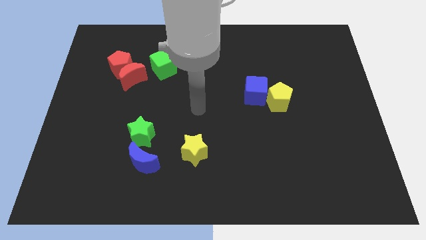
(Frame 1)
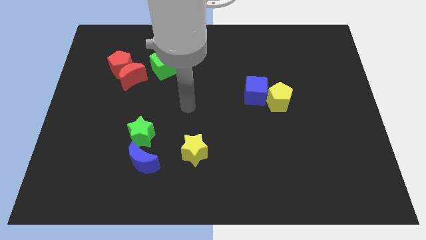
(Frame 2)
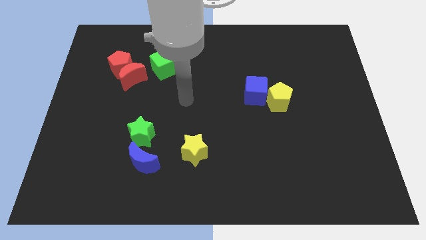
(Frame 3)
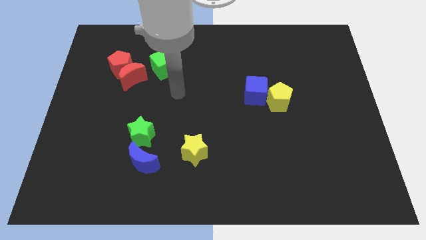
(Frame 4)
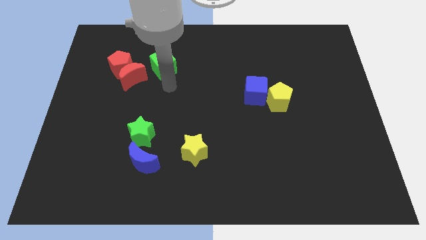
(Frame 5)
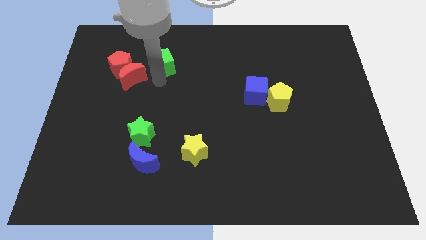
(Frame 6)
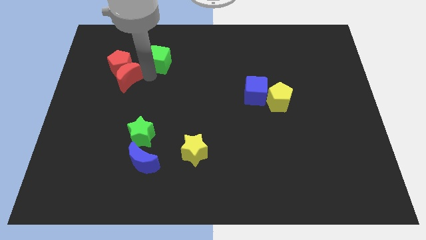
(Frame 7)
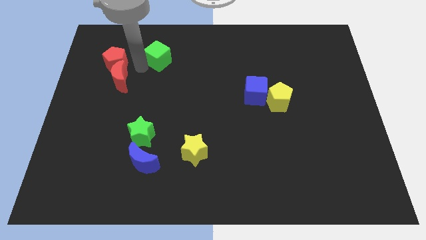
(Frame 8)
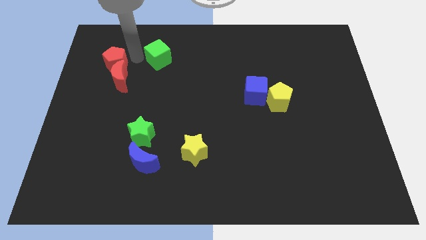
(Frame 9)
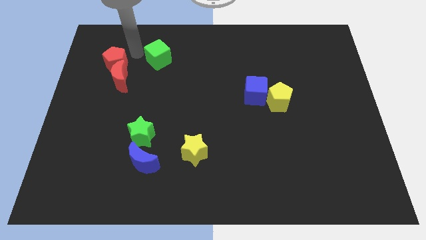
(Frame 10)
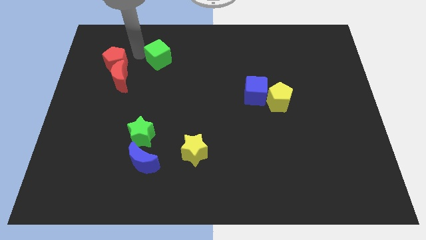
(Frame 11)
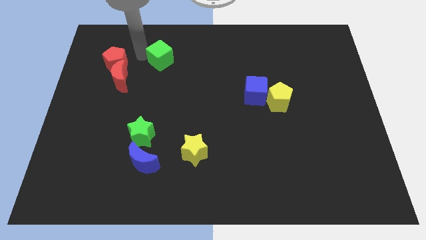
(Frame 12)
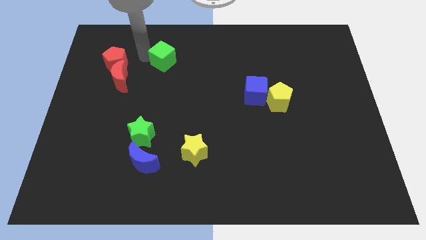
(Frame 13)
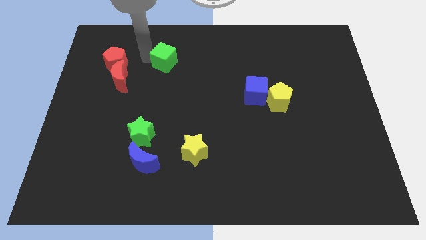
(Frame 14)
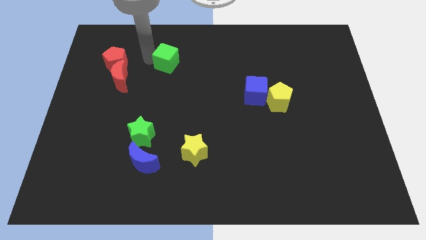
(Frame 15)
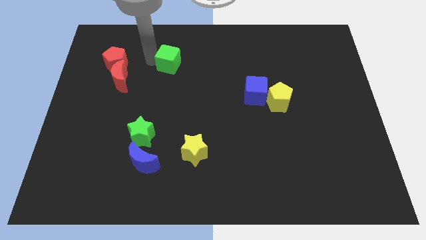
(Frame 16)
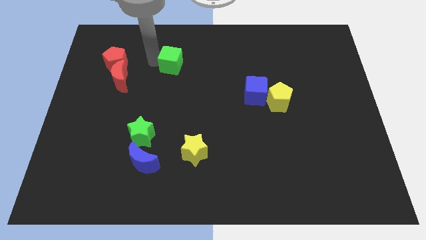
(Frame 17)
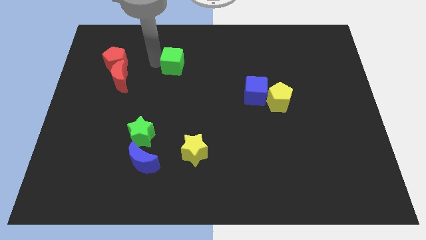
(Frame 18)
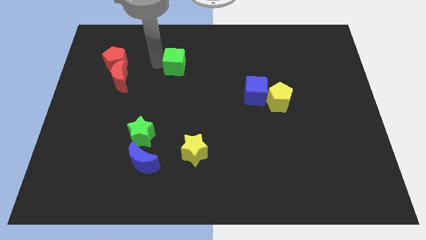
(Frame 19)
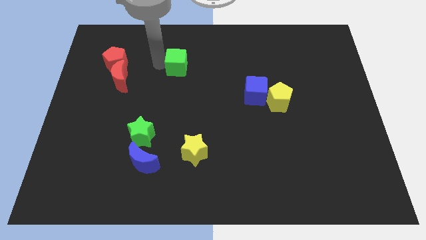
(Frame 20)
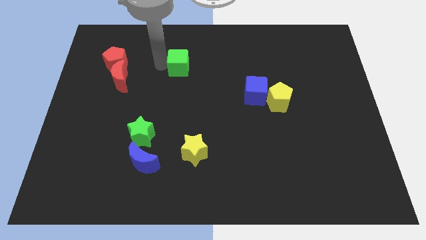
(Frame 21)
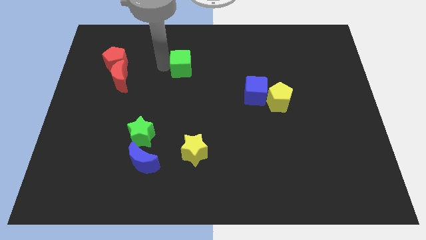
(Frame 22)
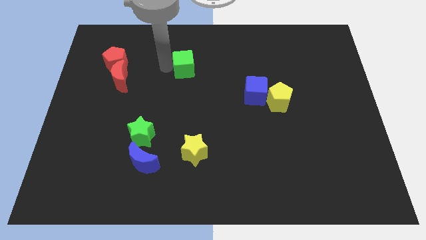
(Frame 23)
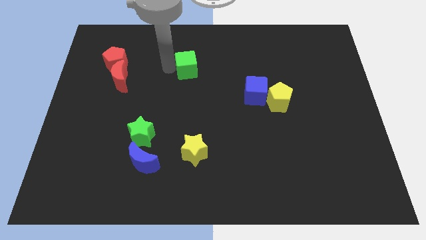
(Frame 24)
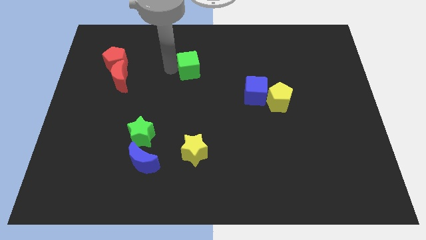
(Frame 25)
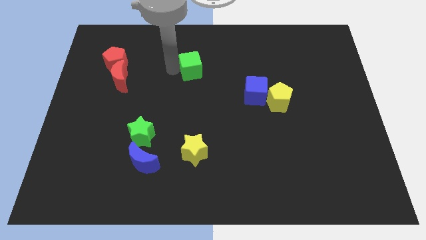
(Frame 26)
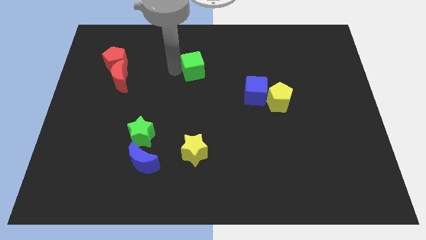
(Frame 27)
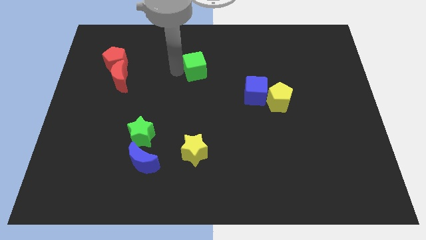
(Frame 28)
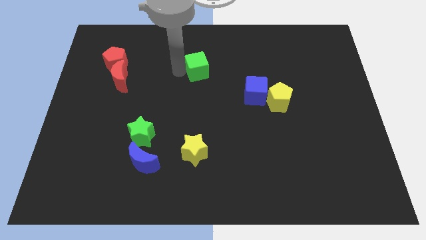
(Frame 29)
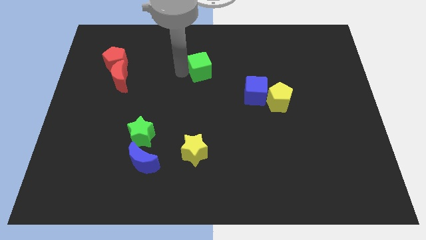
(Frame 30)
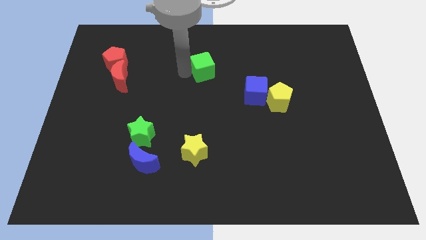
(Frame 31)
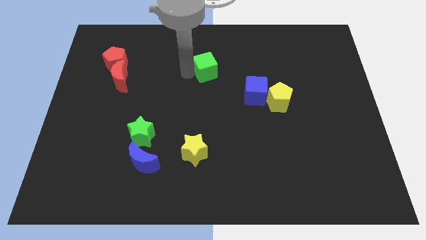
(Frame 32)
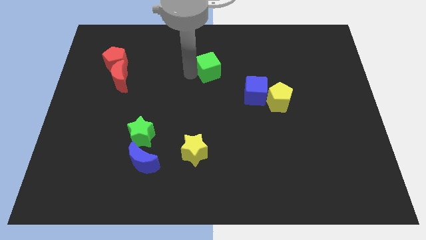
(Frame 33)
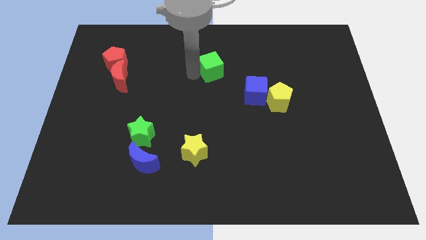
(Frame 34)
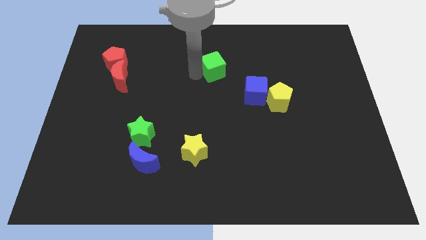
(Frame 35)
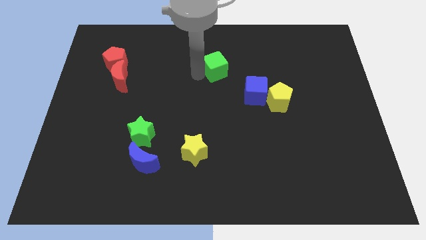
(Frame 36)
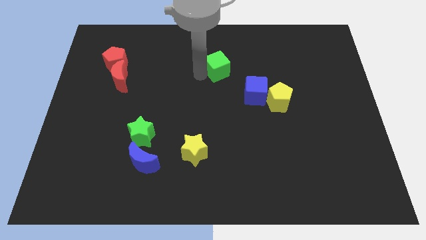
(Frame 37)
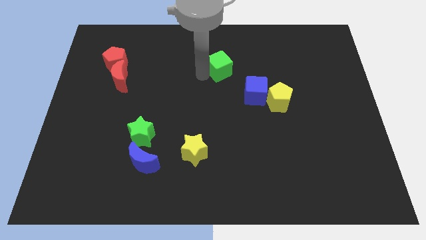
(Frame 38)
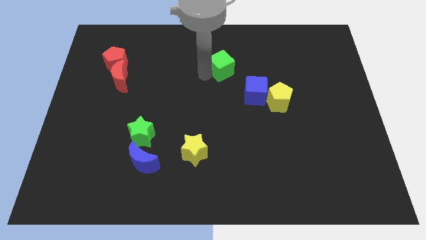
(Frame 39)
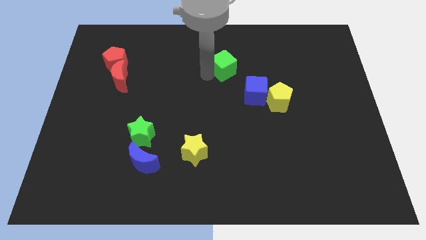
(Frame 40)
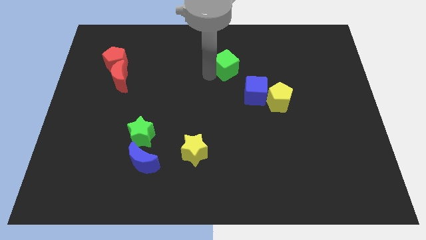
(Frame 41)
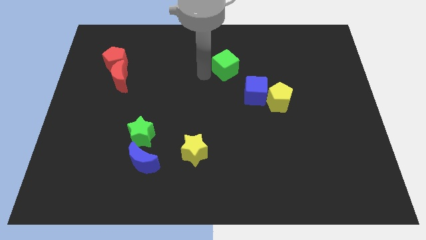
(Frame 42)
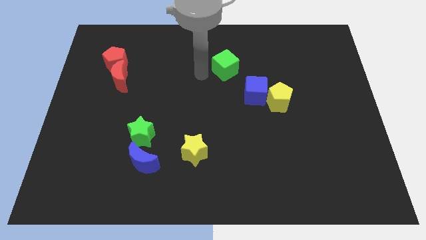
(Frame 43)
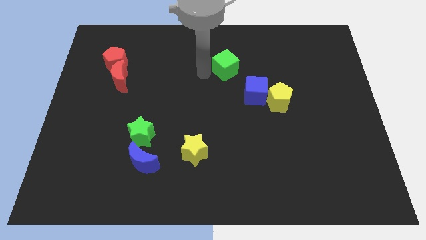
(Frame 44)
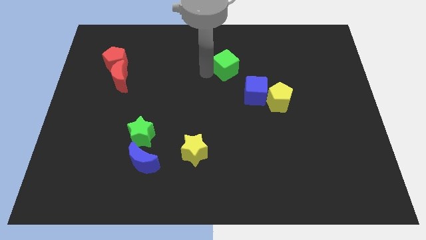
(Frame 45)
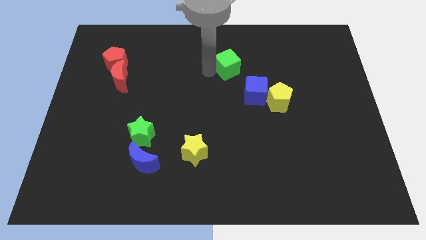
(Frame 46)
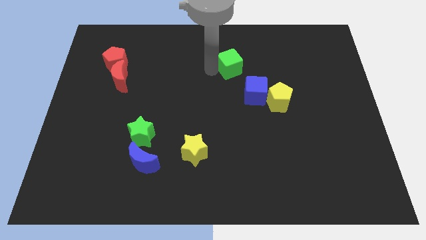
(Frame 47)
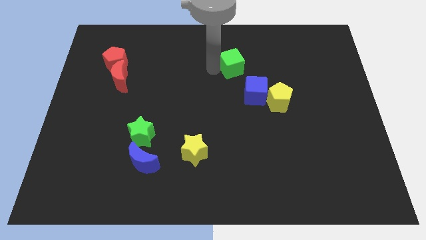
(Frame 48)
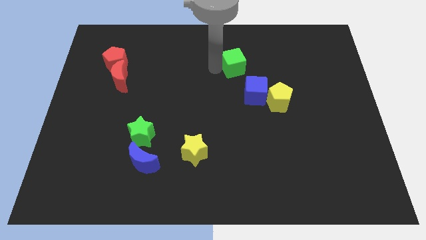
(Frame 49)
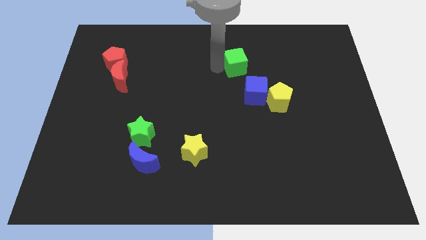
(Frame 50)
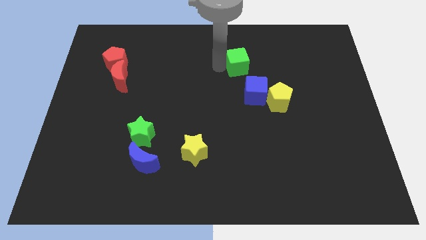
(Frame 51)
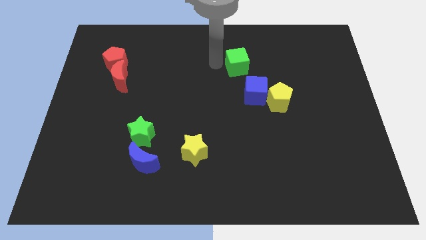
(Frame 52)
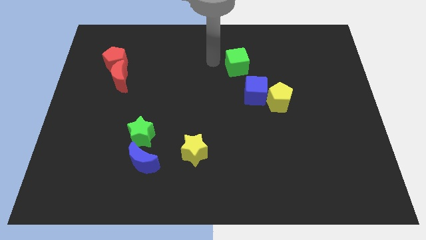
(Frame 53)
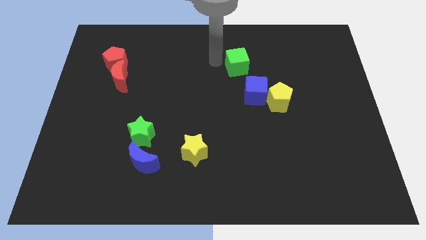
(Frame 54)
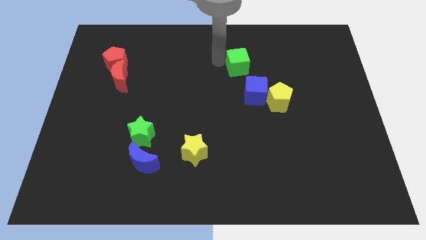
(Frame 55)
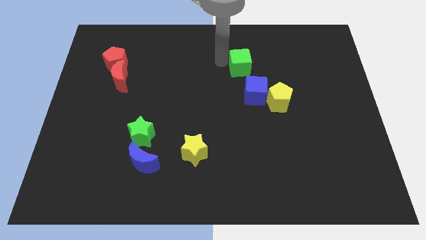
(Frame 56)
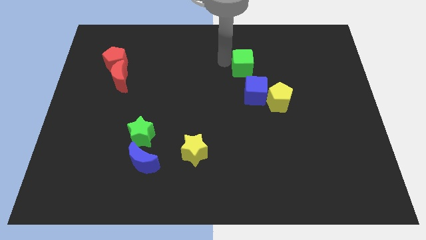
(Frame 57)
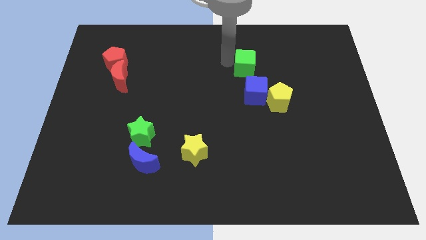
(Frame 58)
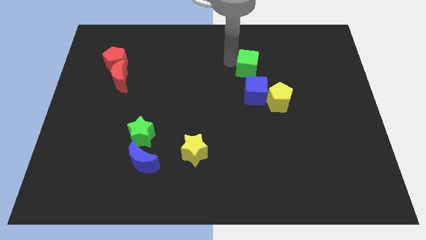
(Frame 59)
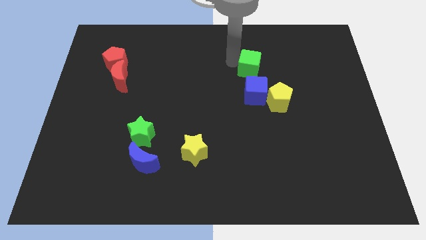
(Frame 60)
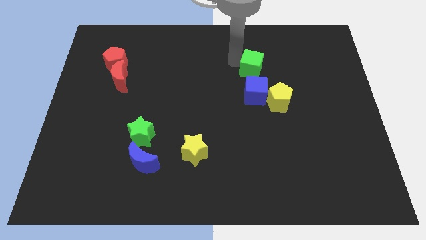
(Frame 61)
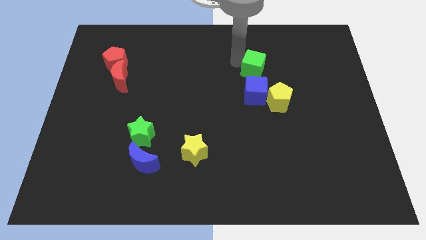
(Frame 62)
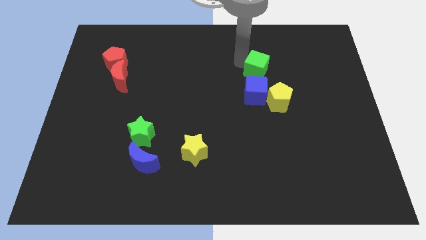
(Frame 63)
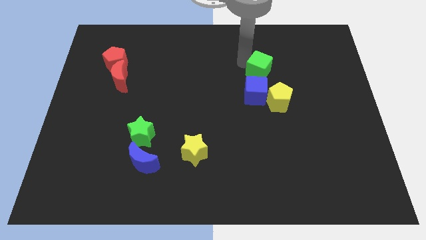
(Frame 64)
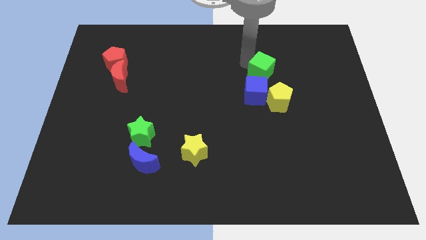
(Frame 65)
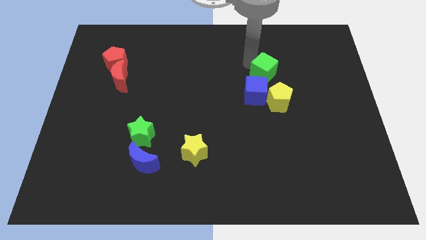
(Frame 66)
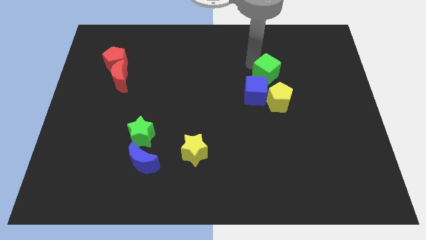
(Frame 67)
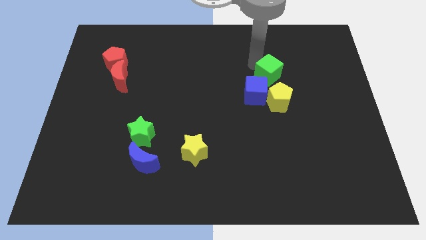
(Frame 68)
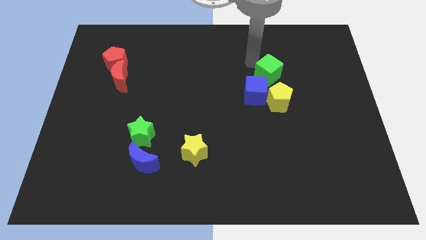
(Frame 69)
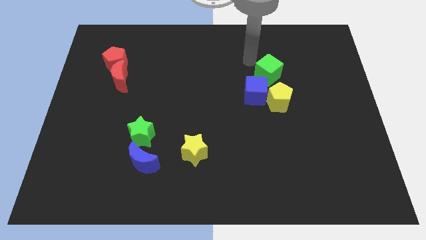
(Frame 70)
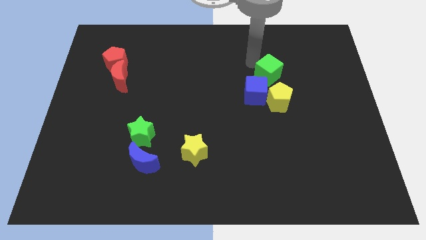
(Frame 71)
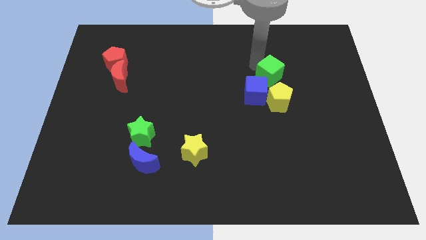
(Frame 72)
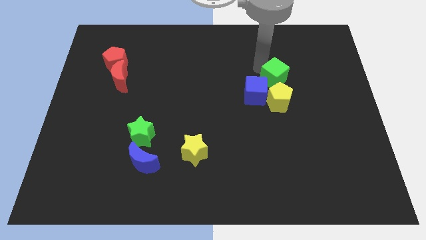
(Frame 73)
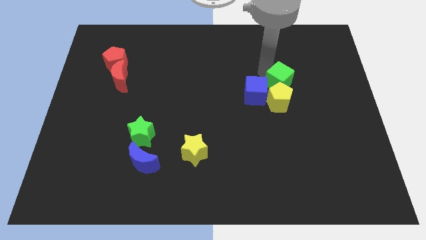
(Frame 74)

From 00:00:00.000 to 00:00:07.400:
move the green cube diagonally up and to the right of the yellow pentagon
